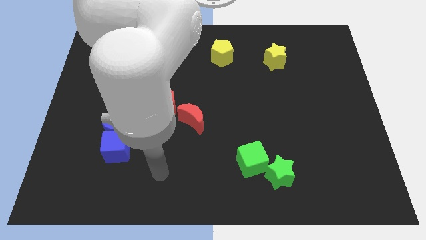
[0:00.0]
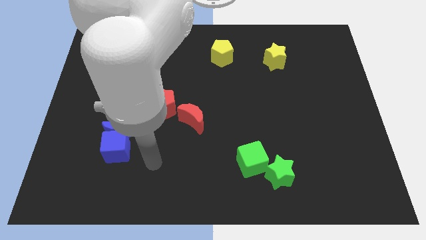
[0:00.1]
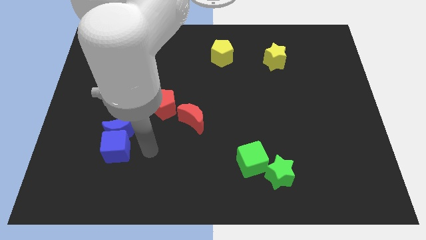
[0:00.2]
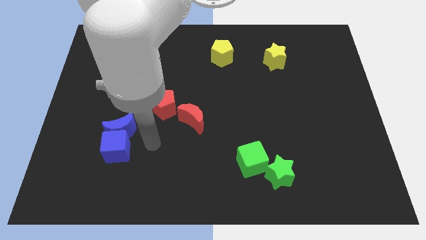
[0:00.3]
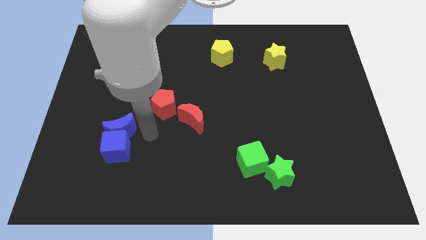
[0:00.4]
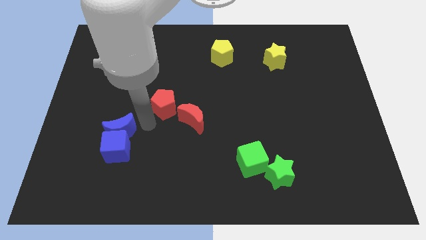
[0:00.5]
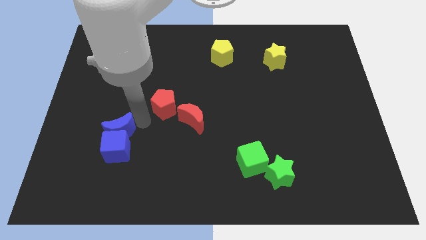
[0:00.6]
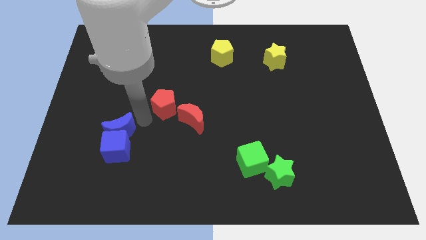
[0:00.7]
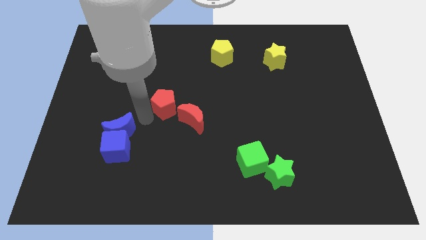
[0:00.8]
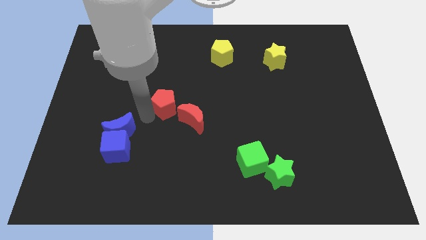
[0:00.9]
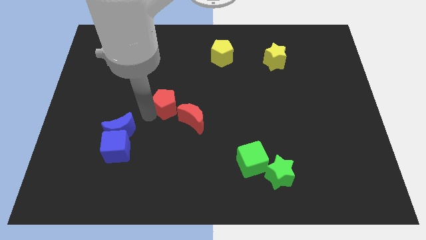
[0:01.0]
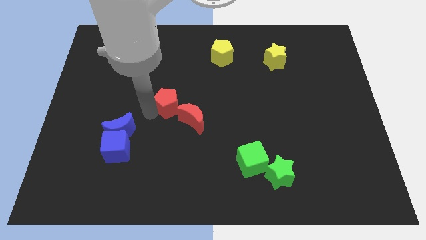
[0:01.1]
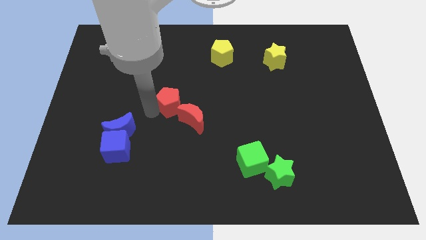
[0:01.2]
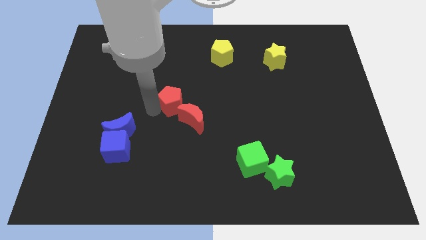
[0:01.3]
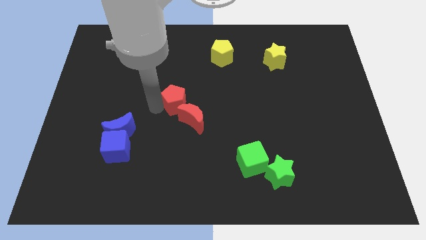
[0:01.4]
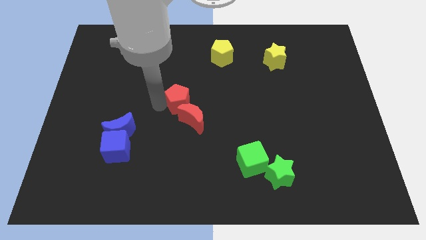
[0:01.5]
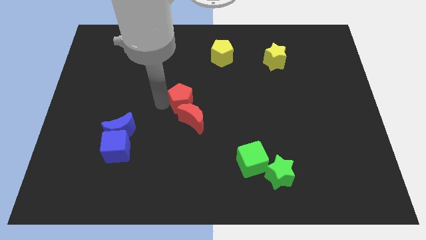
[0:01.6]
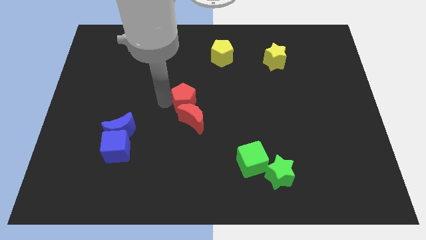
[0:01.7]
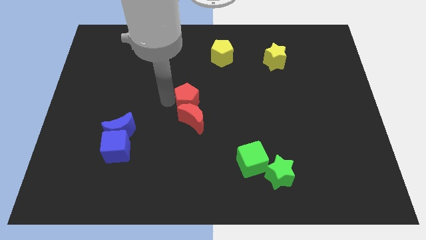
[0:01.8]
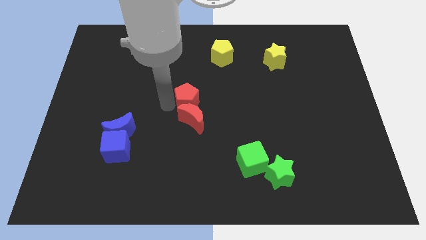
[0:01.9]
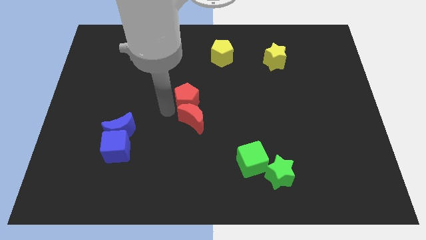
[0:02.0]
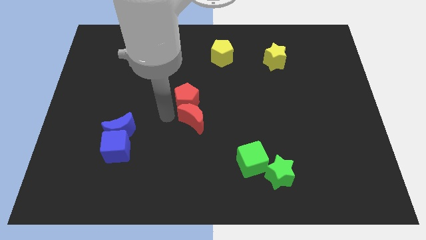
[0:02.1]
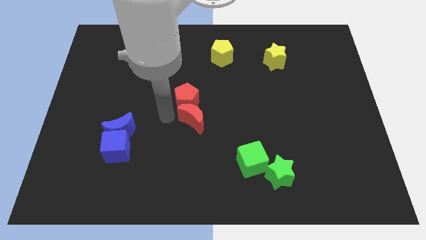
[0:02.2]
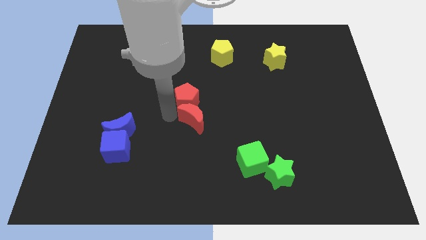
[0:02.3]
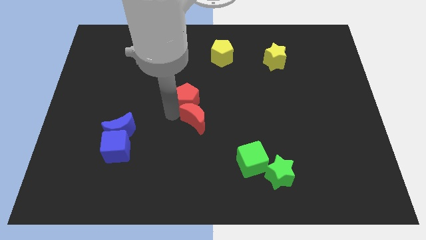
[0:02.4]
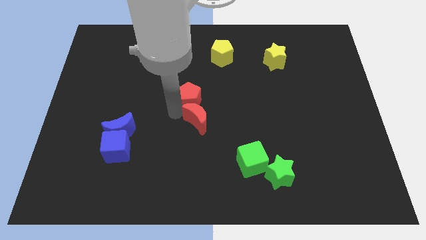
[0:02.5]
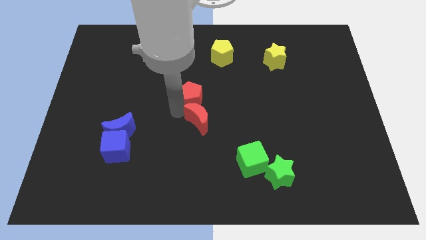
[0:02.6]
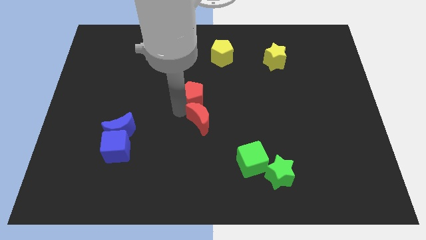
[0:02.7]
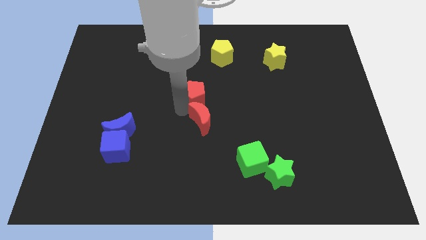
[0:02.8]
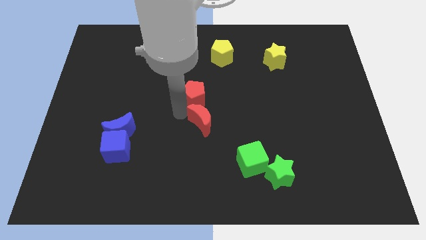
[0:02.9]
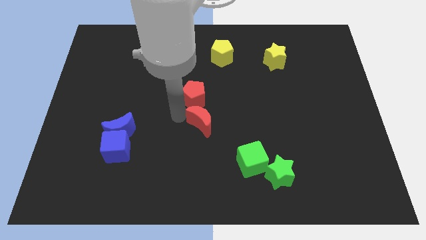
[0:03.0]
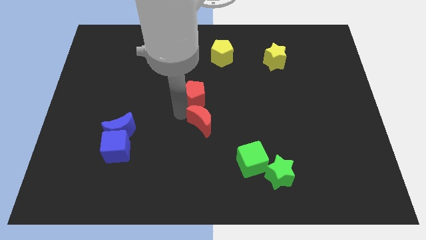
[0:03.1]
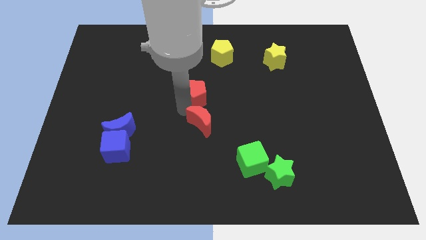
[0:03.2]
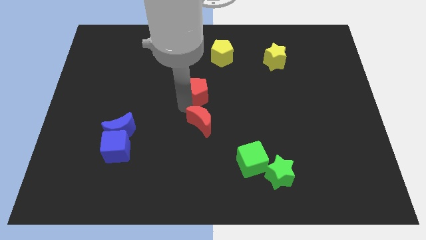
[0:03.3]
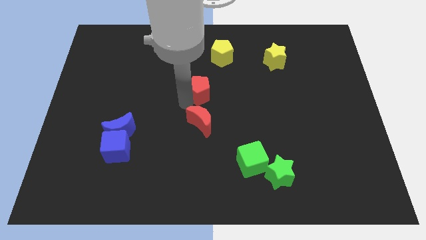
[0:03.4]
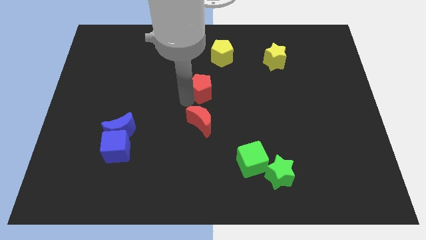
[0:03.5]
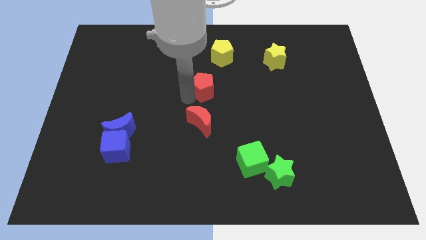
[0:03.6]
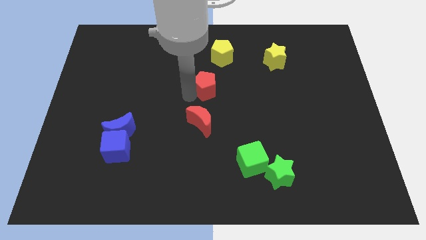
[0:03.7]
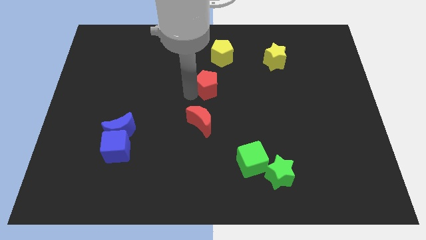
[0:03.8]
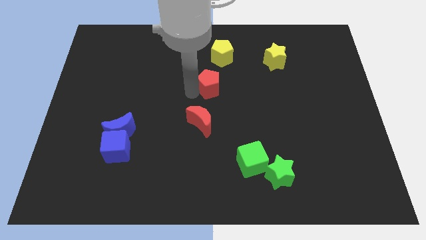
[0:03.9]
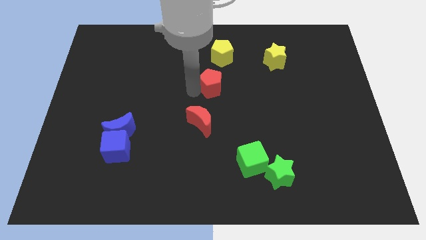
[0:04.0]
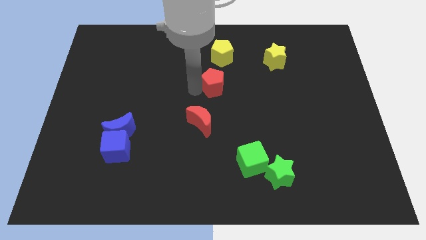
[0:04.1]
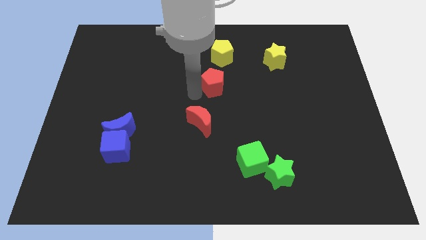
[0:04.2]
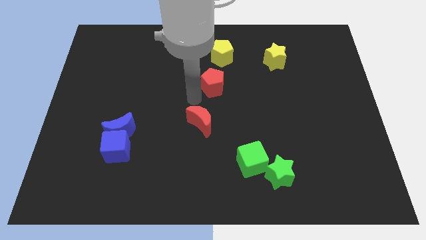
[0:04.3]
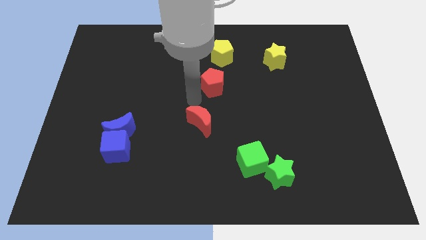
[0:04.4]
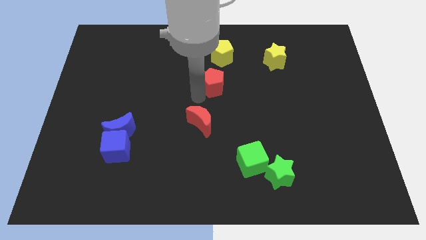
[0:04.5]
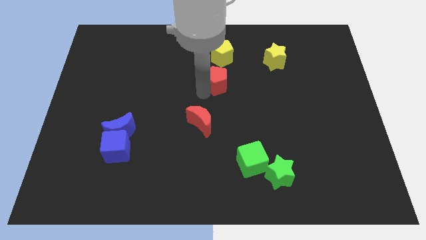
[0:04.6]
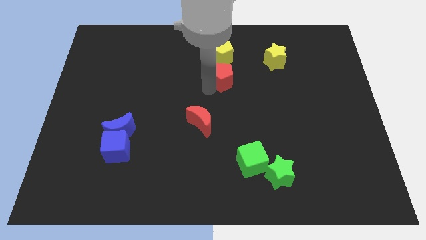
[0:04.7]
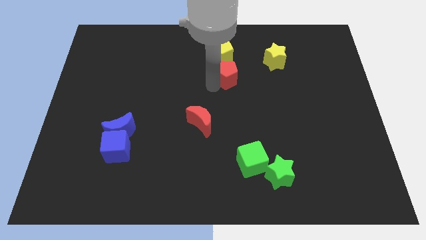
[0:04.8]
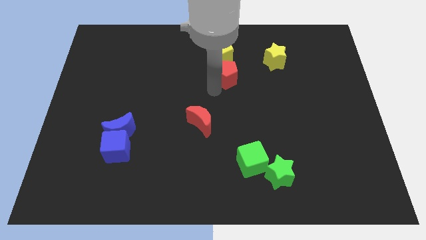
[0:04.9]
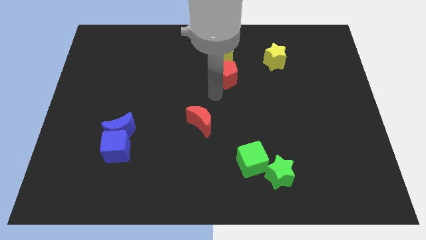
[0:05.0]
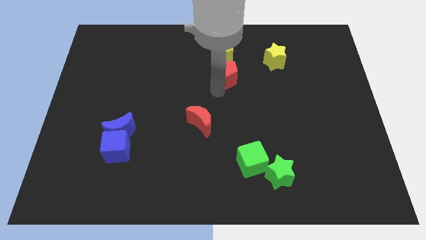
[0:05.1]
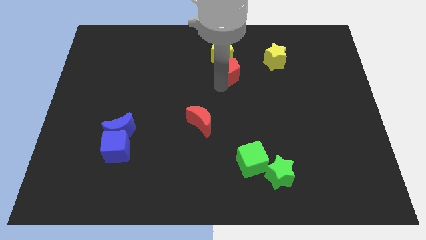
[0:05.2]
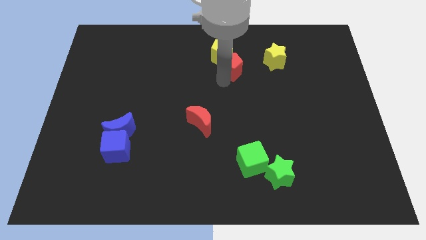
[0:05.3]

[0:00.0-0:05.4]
slide the red pentagon to the left side of the yellow star

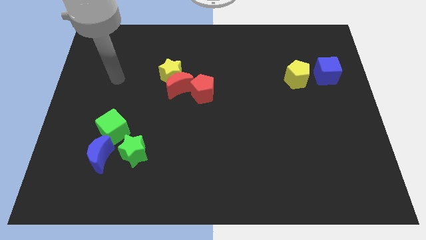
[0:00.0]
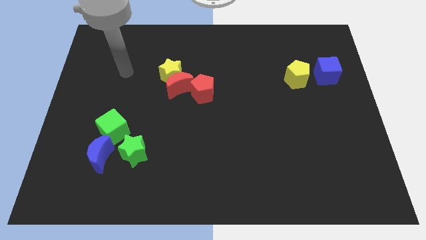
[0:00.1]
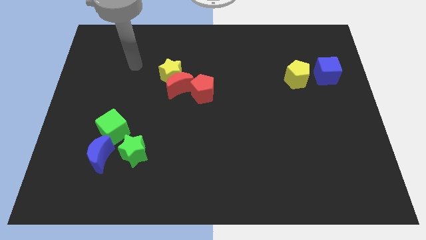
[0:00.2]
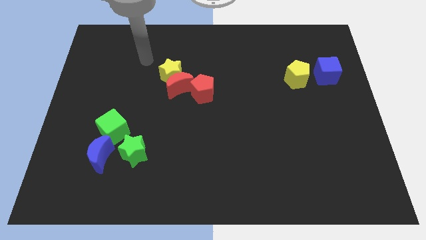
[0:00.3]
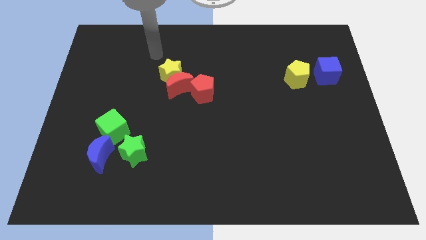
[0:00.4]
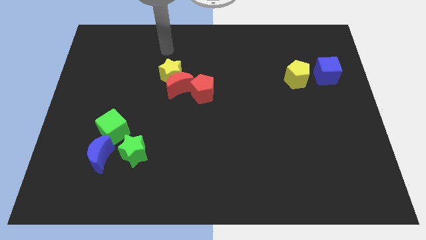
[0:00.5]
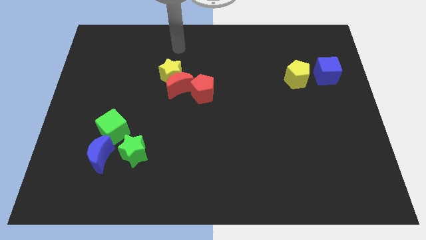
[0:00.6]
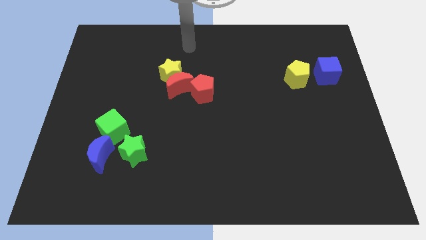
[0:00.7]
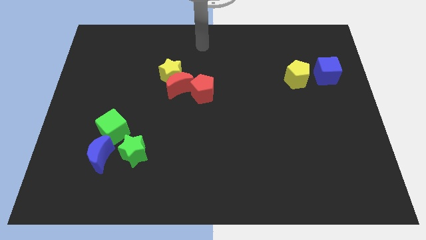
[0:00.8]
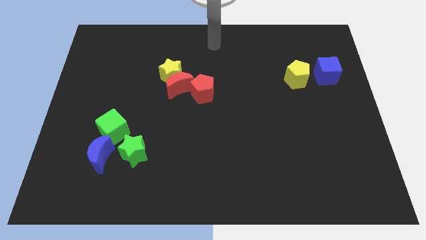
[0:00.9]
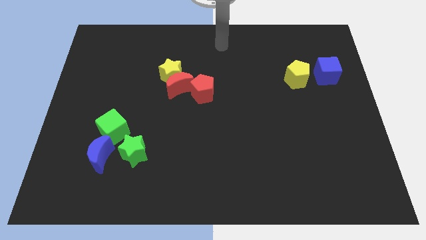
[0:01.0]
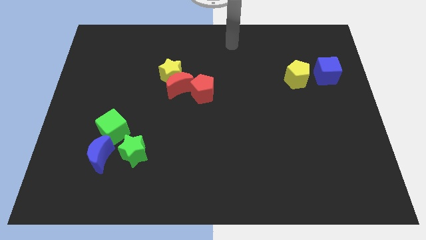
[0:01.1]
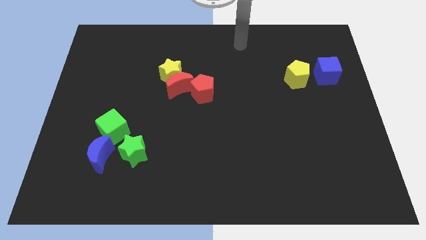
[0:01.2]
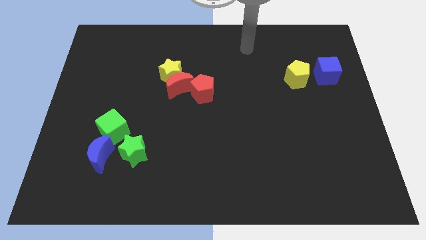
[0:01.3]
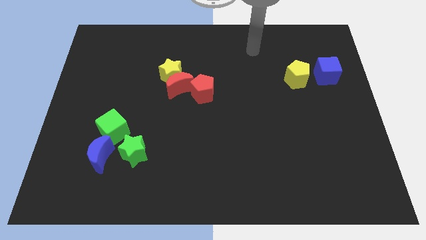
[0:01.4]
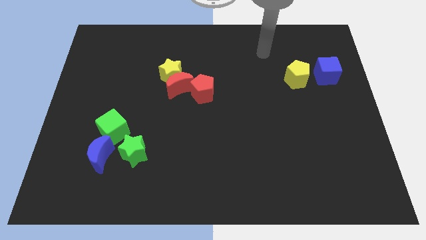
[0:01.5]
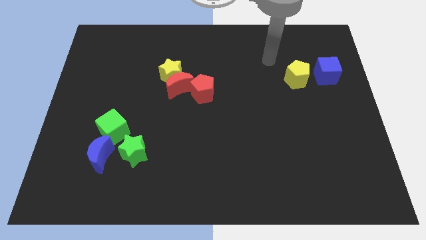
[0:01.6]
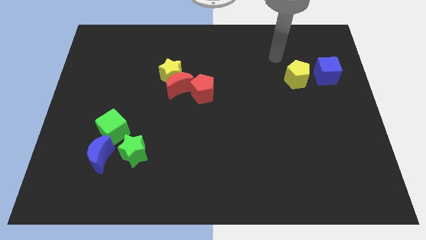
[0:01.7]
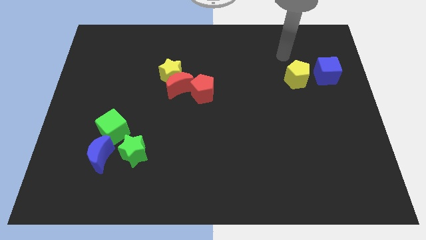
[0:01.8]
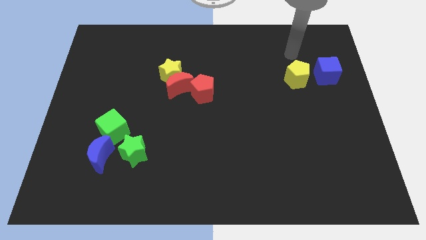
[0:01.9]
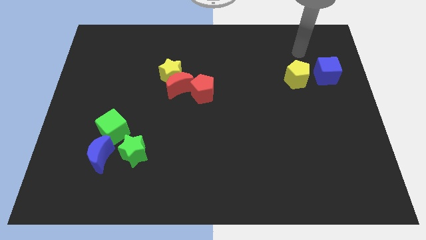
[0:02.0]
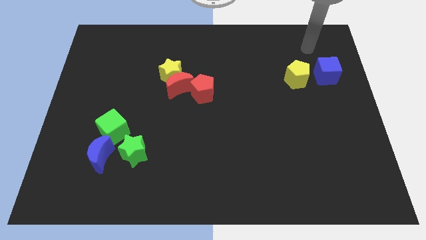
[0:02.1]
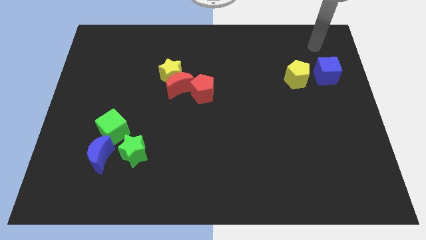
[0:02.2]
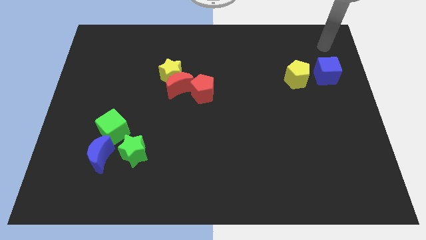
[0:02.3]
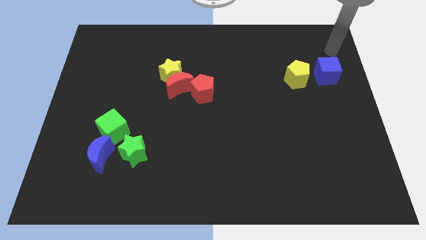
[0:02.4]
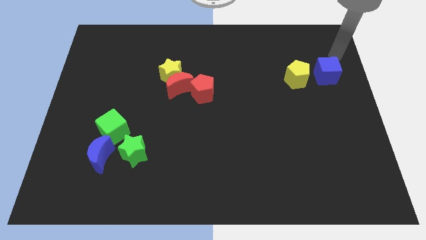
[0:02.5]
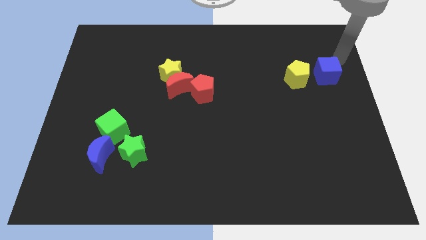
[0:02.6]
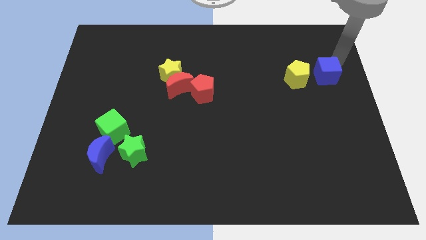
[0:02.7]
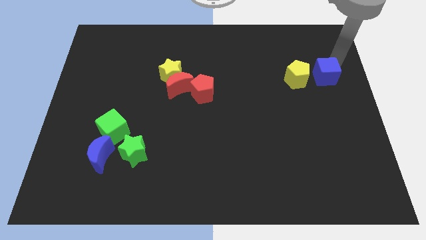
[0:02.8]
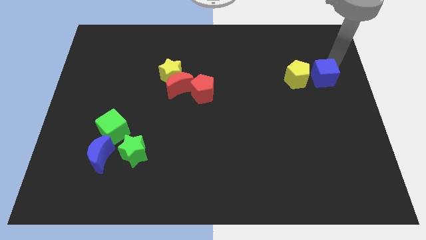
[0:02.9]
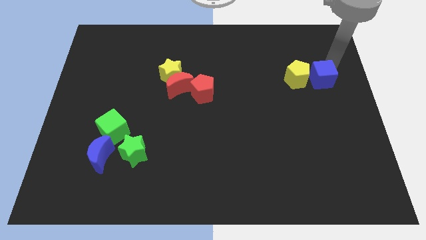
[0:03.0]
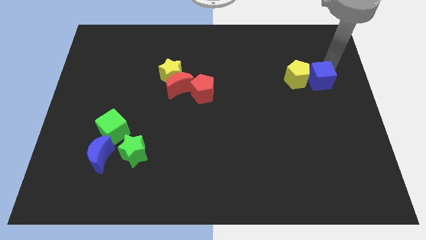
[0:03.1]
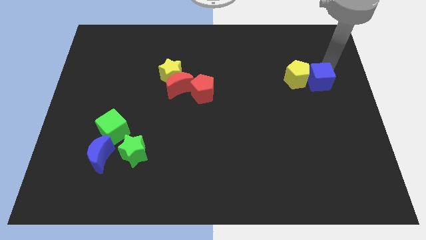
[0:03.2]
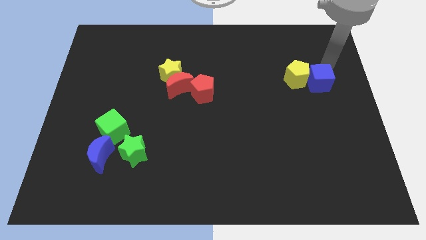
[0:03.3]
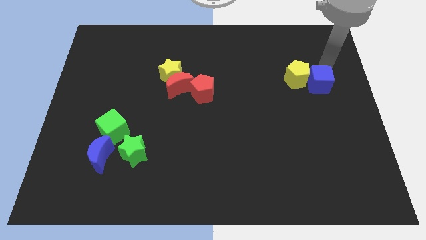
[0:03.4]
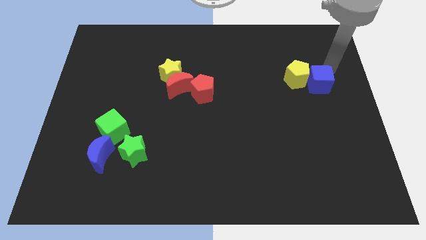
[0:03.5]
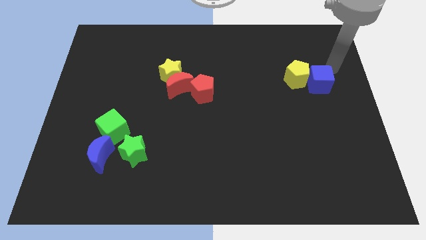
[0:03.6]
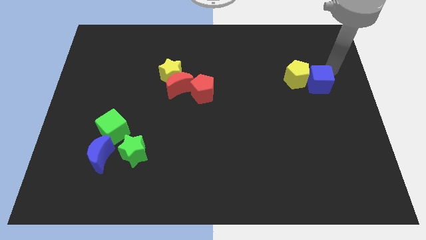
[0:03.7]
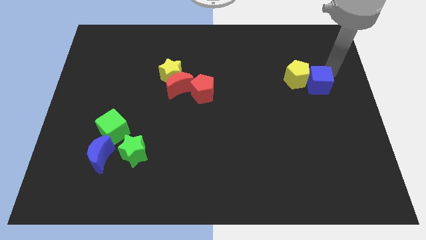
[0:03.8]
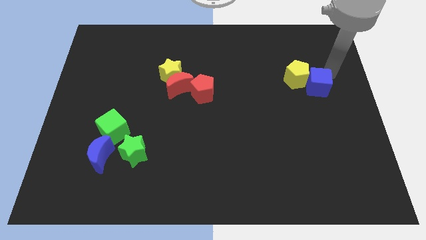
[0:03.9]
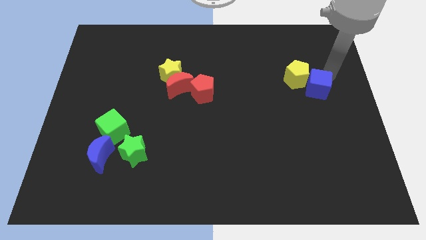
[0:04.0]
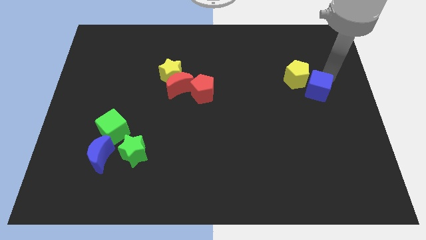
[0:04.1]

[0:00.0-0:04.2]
move the blue cube to the bottom of the yellow pentagon
